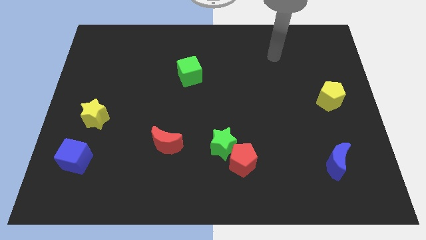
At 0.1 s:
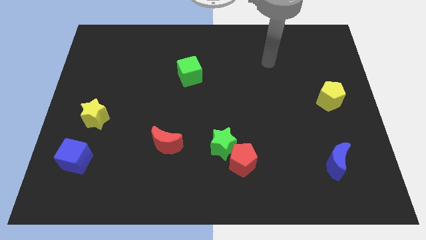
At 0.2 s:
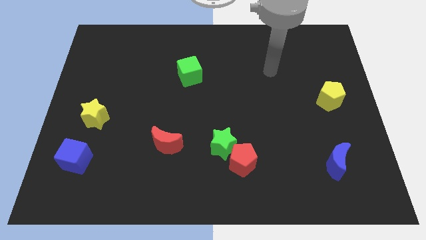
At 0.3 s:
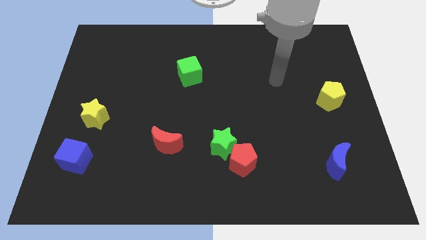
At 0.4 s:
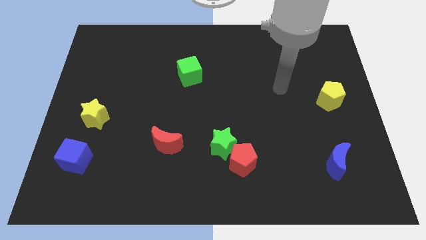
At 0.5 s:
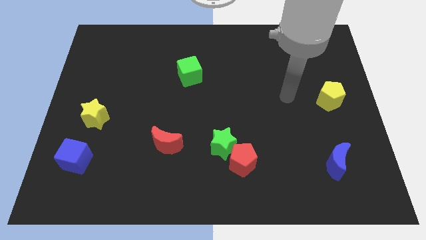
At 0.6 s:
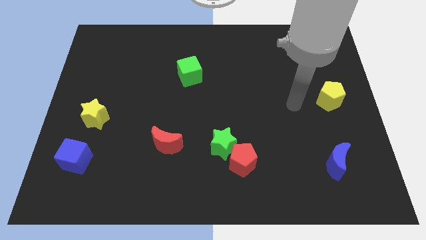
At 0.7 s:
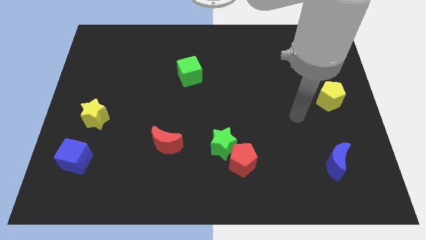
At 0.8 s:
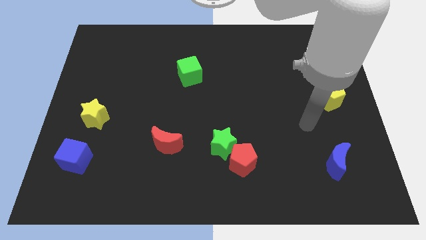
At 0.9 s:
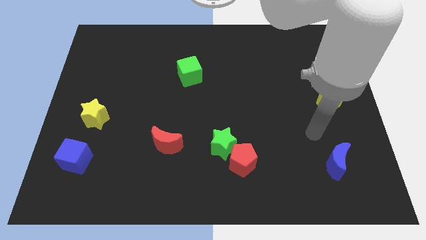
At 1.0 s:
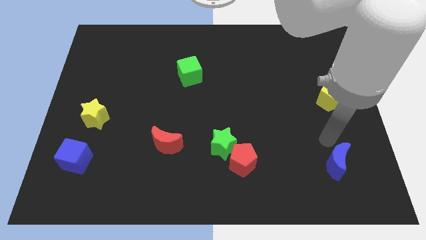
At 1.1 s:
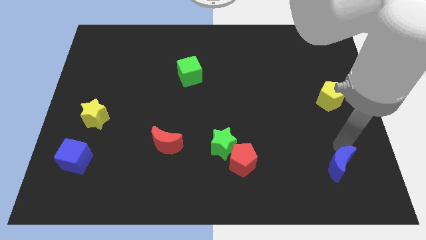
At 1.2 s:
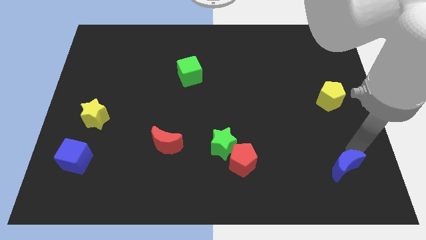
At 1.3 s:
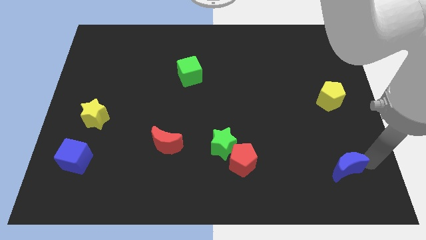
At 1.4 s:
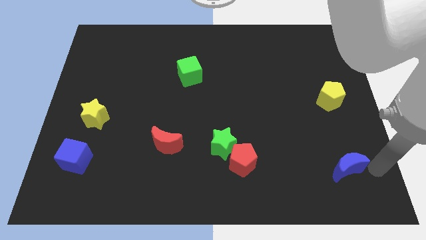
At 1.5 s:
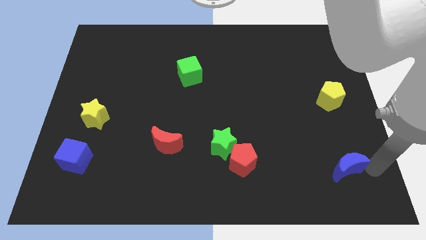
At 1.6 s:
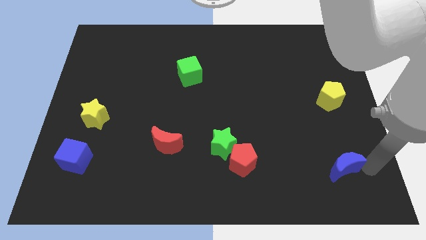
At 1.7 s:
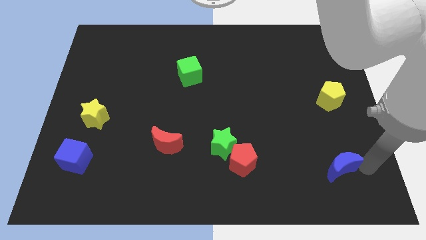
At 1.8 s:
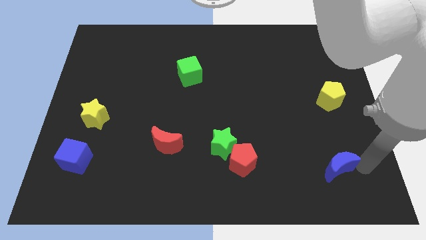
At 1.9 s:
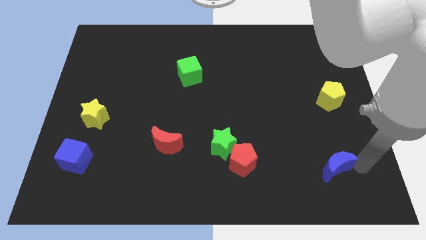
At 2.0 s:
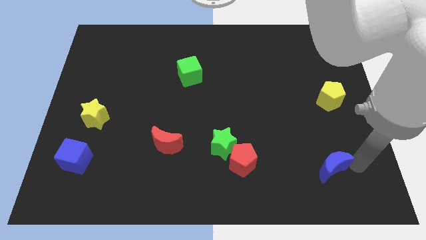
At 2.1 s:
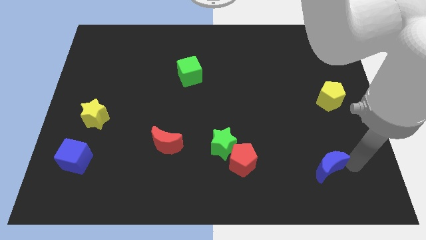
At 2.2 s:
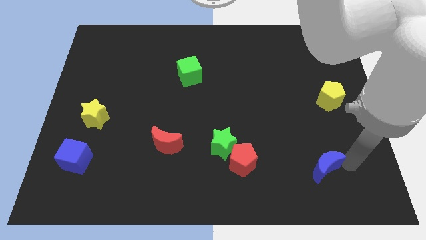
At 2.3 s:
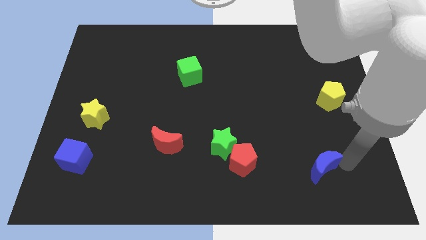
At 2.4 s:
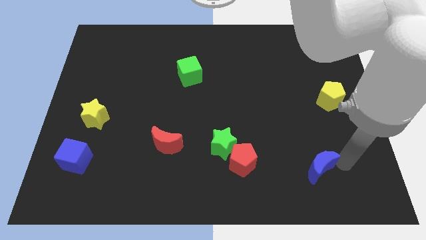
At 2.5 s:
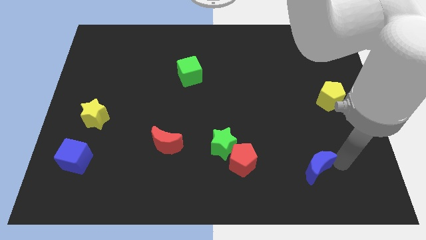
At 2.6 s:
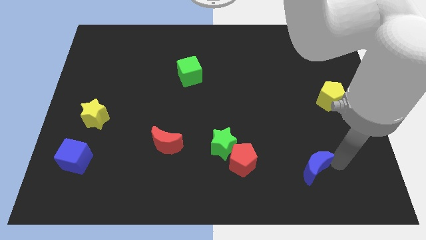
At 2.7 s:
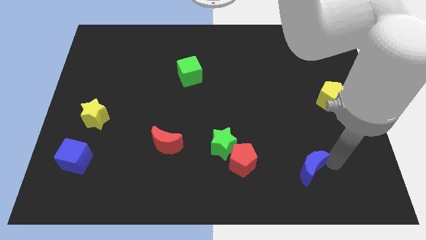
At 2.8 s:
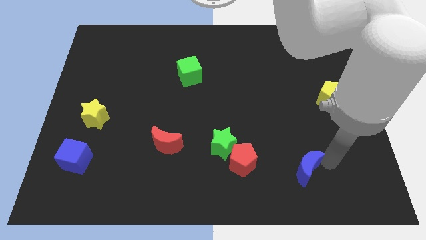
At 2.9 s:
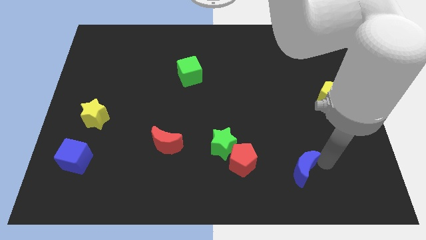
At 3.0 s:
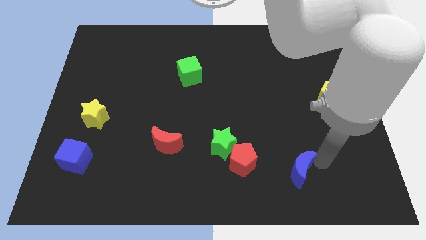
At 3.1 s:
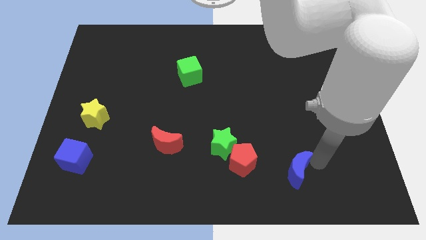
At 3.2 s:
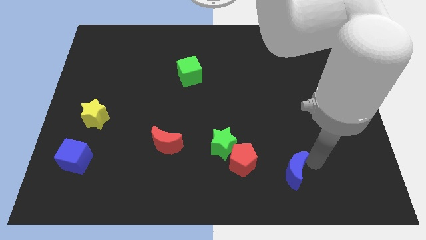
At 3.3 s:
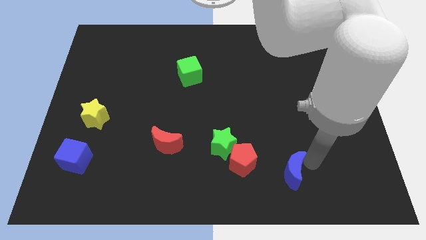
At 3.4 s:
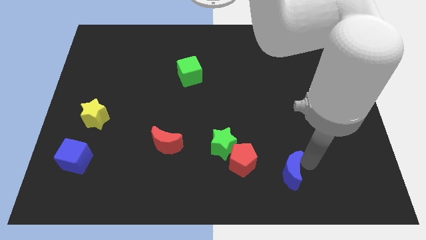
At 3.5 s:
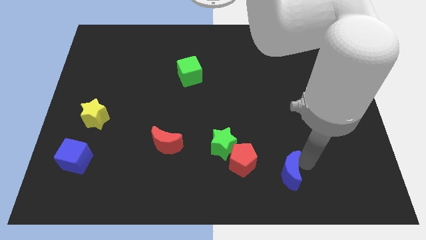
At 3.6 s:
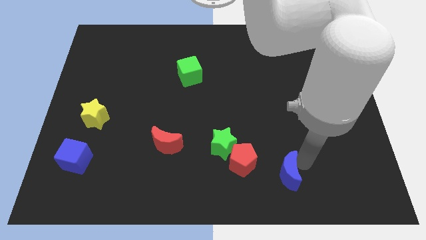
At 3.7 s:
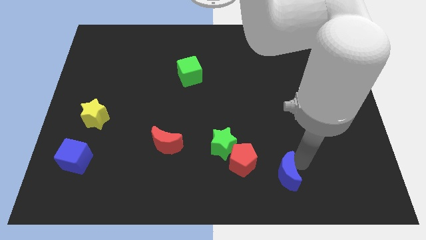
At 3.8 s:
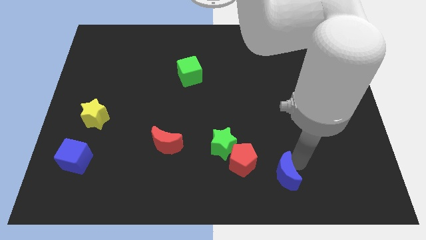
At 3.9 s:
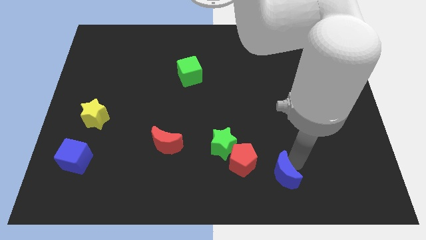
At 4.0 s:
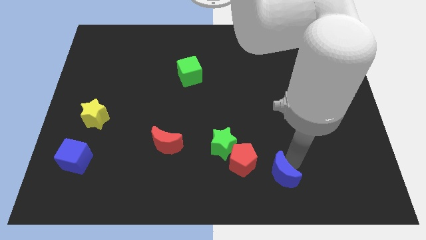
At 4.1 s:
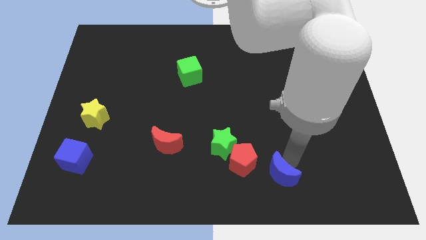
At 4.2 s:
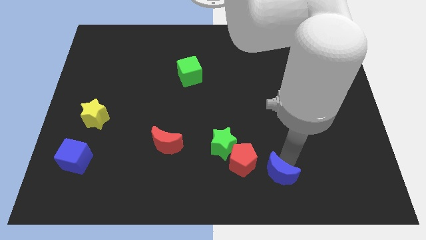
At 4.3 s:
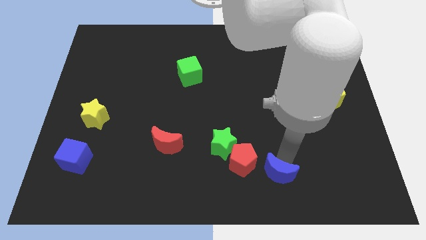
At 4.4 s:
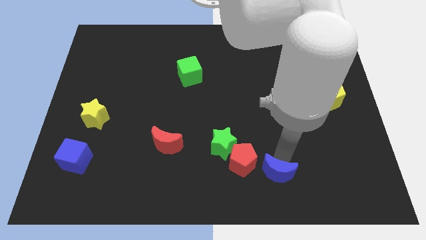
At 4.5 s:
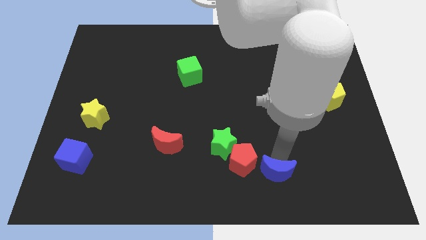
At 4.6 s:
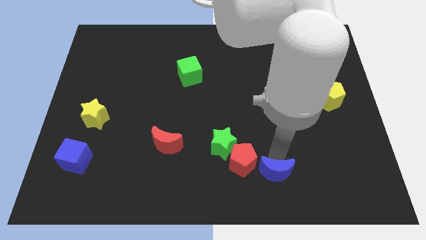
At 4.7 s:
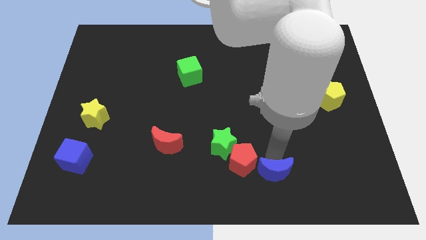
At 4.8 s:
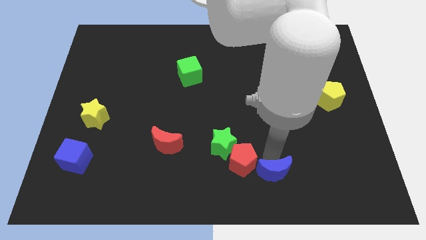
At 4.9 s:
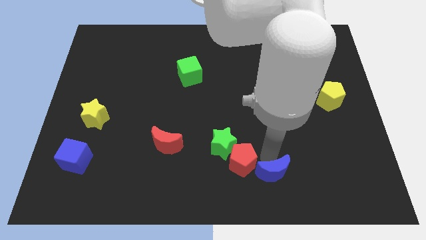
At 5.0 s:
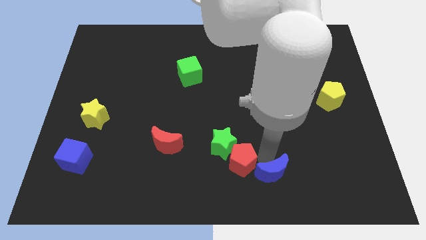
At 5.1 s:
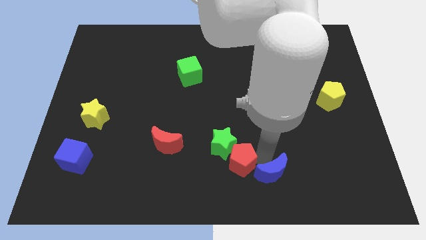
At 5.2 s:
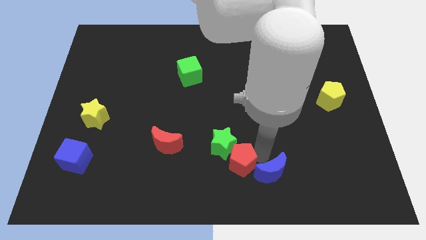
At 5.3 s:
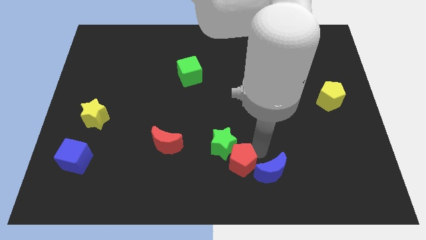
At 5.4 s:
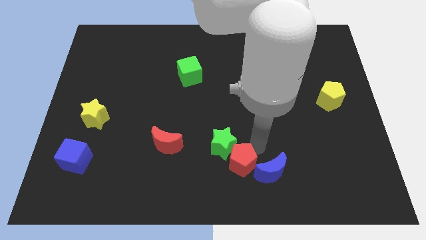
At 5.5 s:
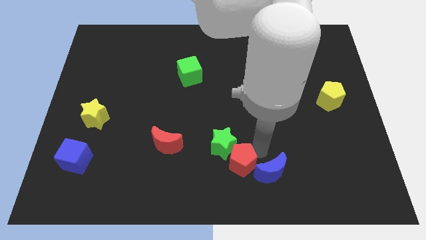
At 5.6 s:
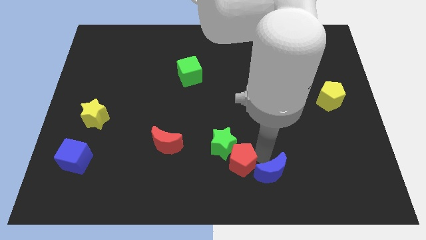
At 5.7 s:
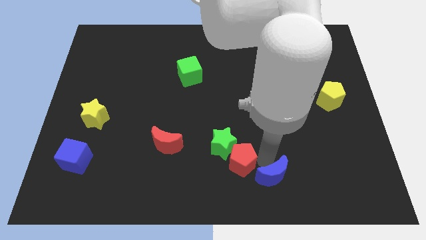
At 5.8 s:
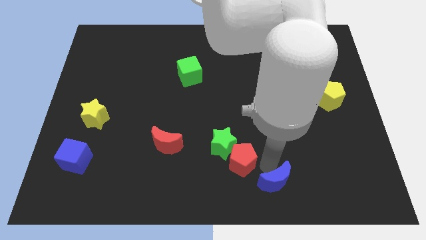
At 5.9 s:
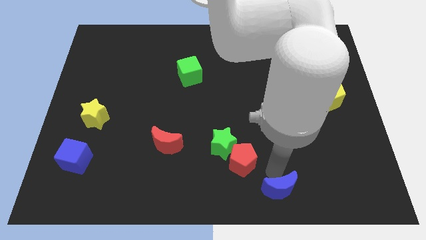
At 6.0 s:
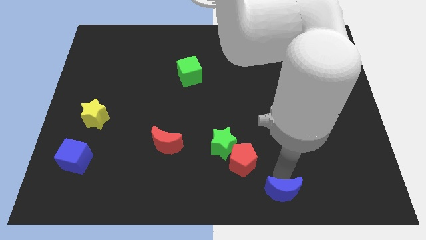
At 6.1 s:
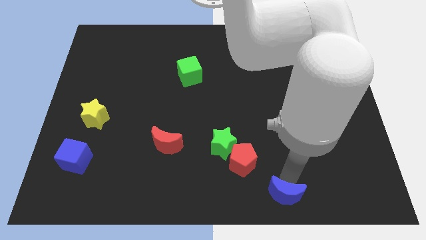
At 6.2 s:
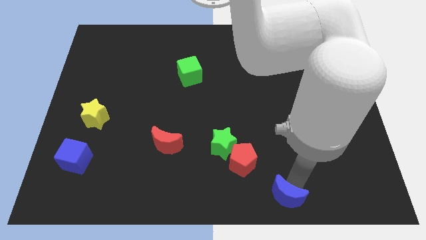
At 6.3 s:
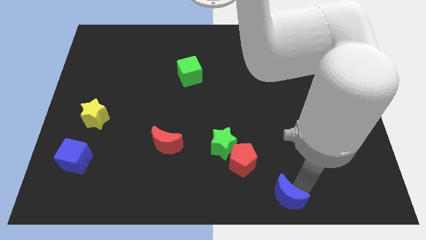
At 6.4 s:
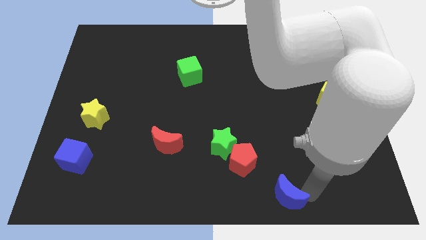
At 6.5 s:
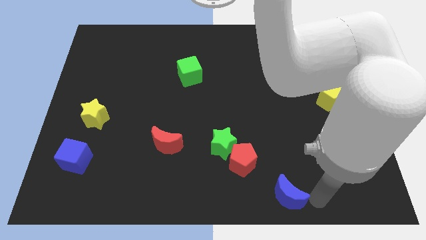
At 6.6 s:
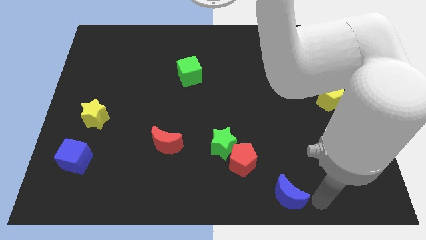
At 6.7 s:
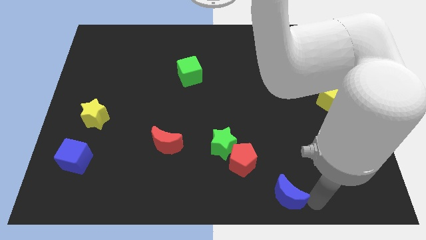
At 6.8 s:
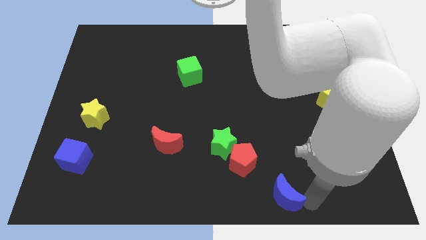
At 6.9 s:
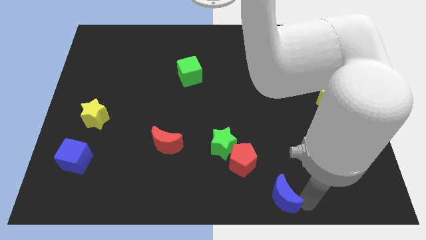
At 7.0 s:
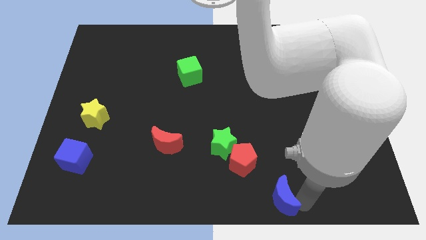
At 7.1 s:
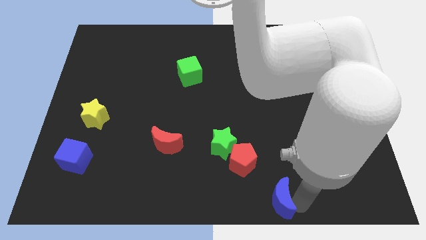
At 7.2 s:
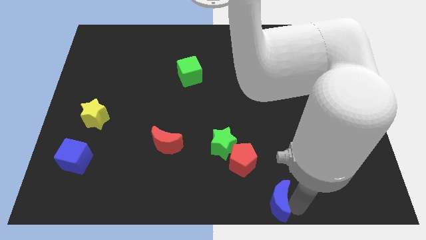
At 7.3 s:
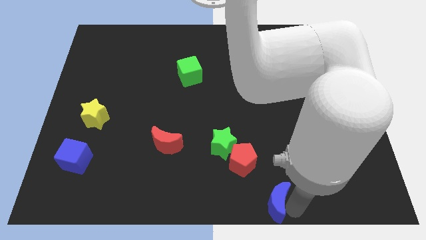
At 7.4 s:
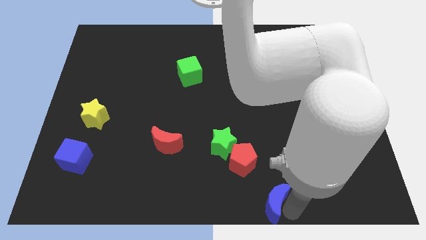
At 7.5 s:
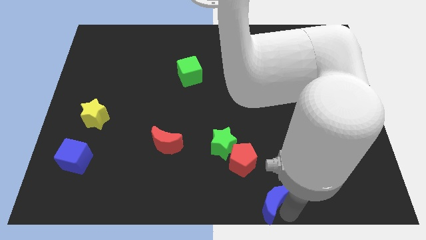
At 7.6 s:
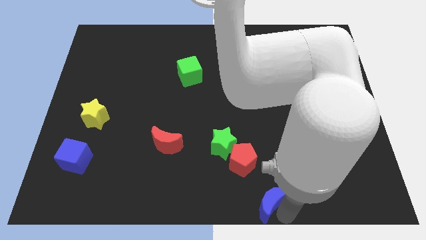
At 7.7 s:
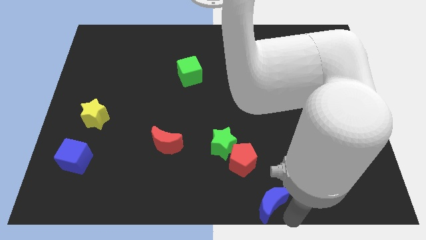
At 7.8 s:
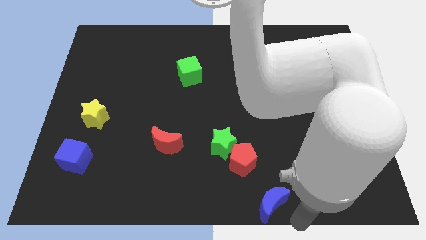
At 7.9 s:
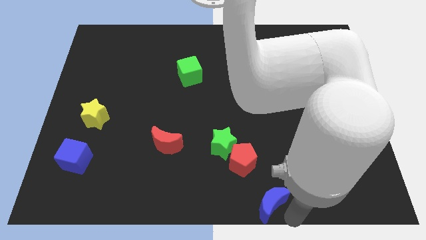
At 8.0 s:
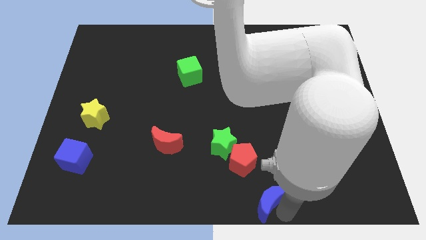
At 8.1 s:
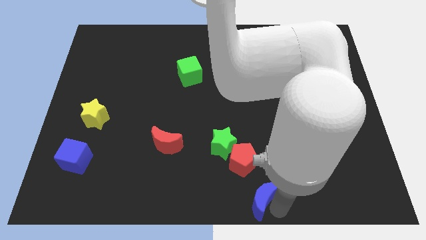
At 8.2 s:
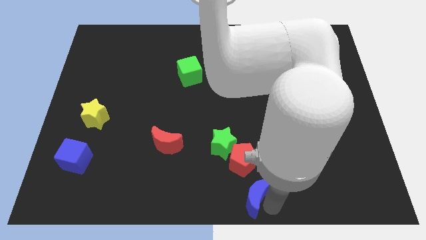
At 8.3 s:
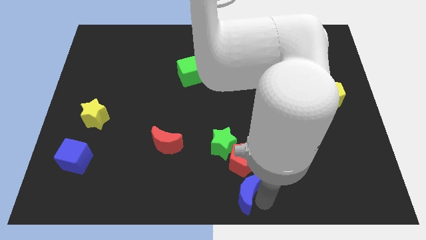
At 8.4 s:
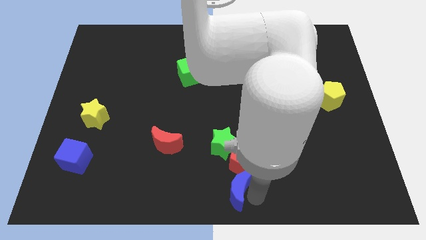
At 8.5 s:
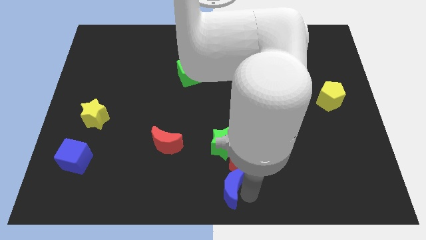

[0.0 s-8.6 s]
move the blue moon to the left
